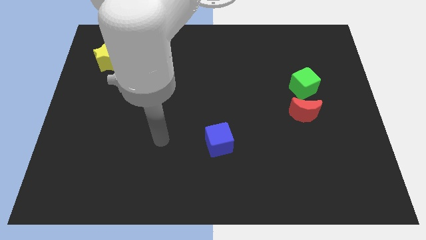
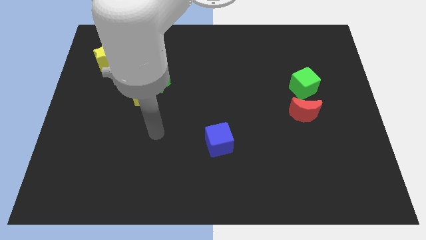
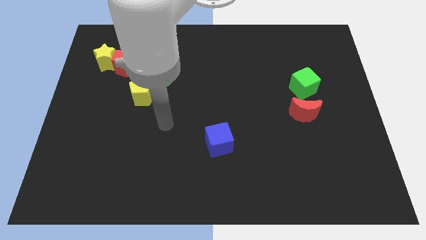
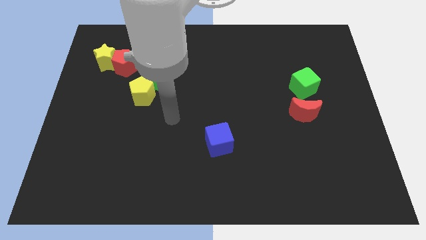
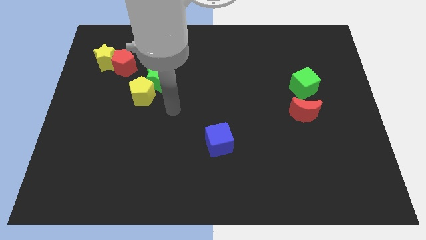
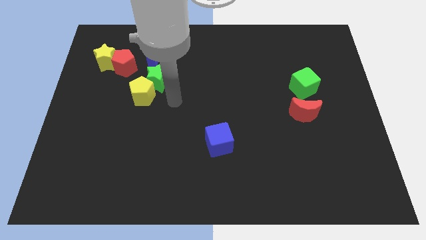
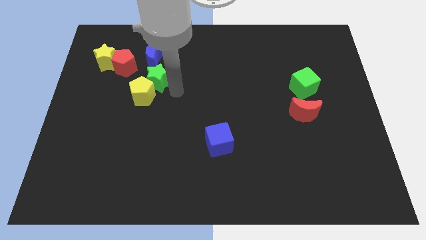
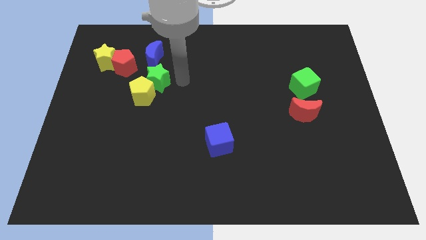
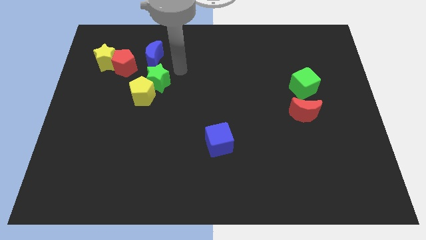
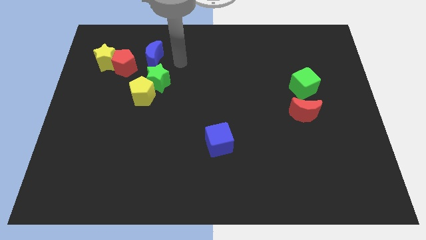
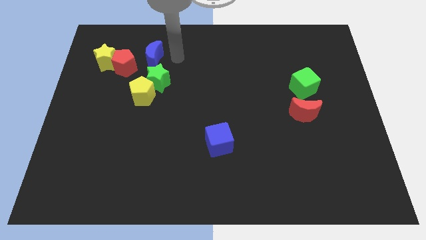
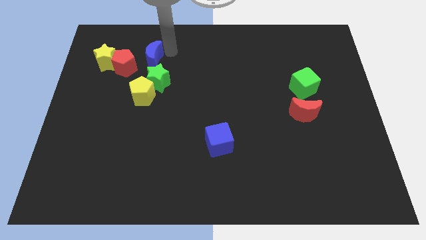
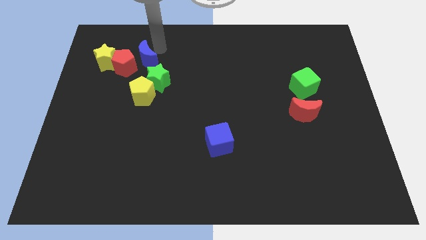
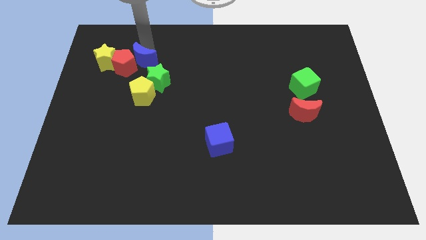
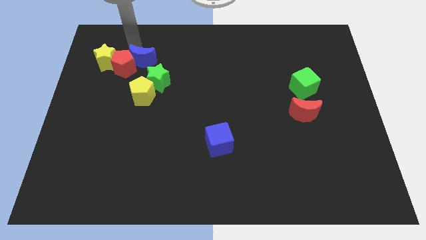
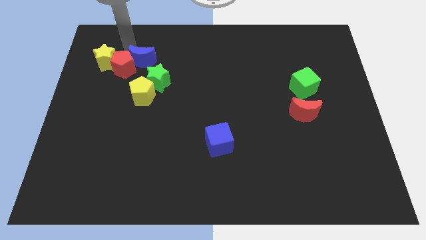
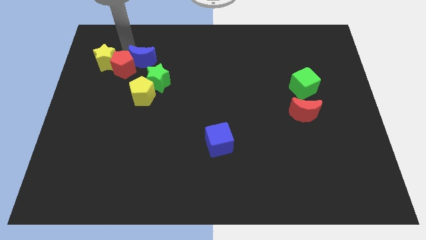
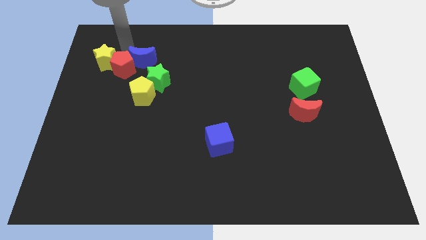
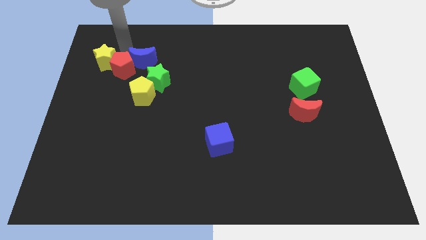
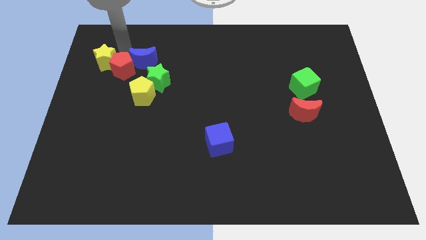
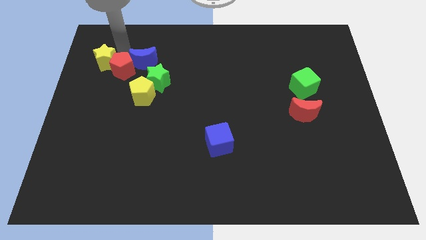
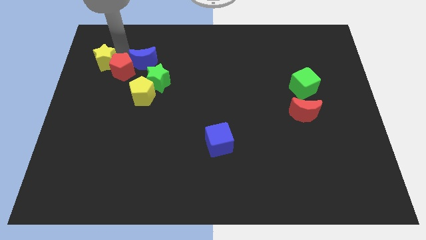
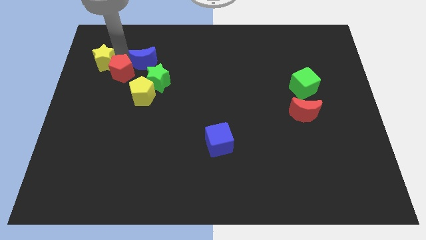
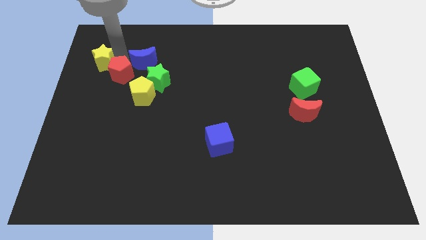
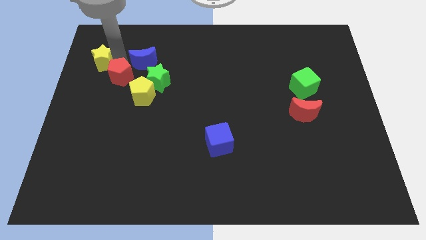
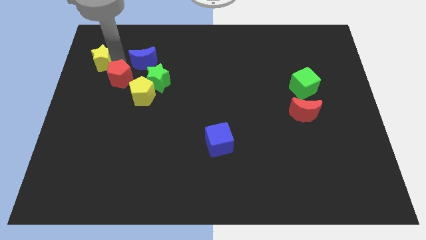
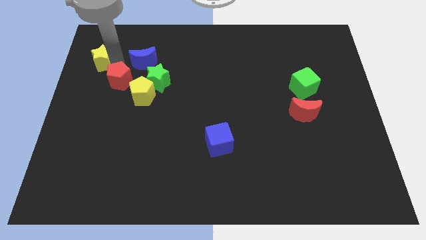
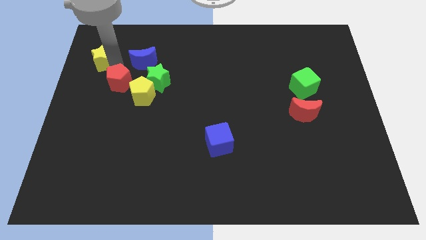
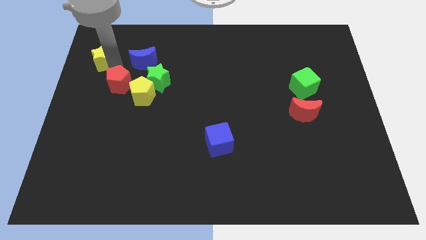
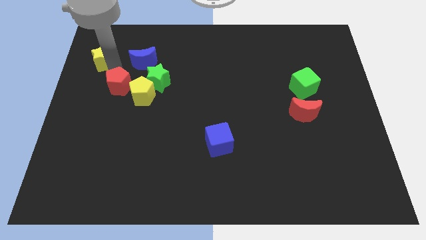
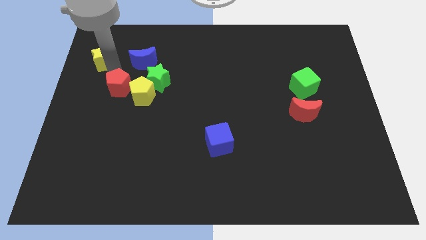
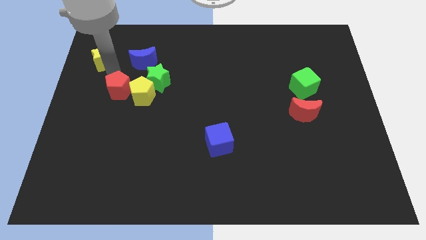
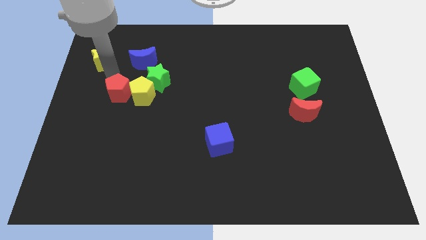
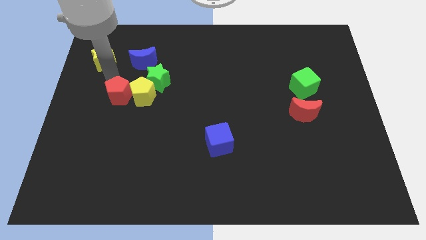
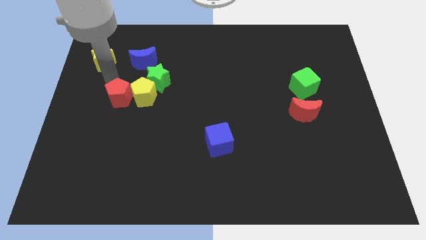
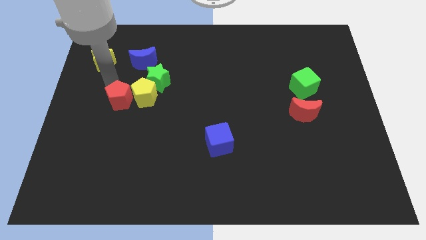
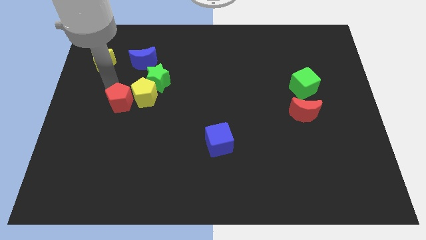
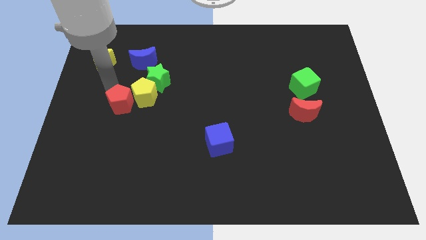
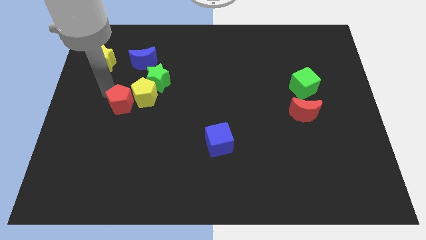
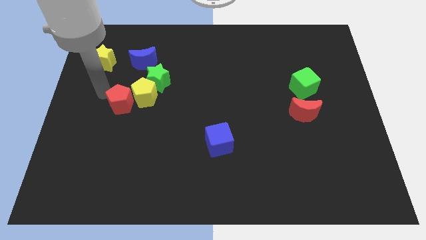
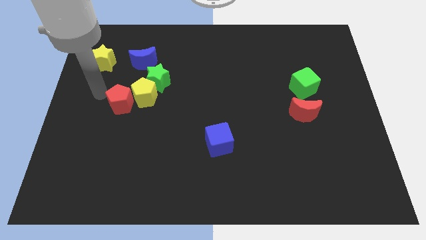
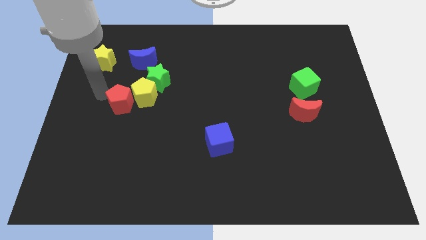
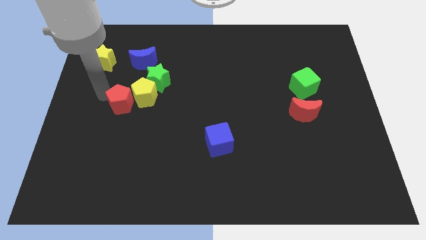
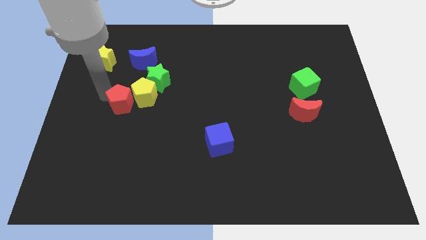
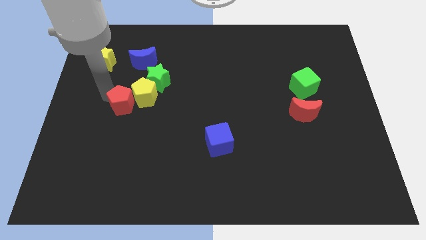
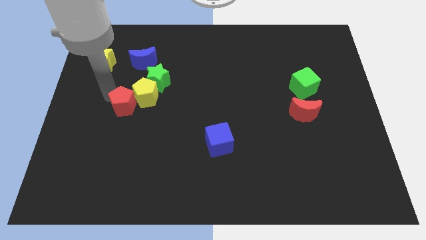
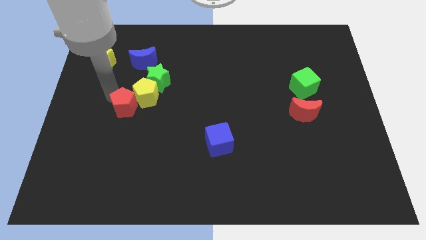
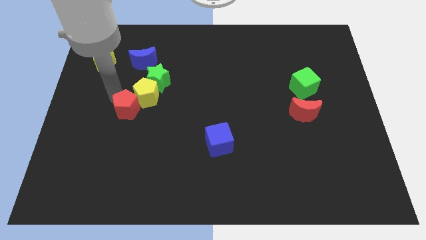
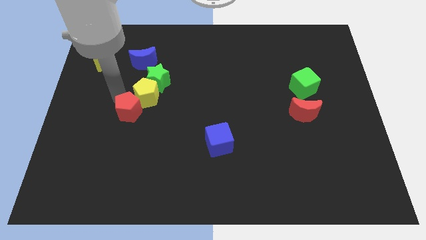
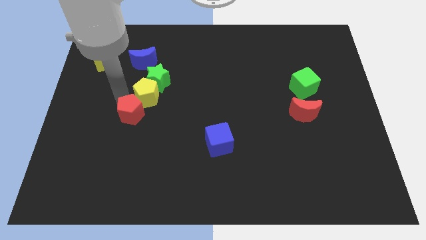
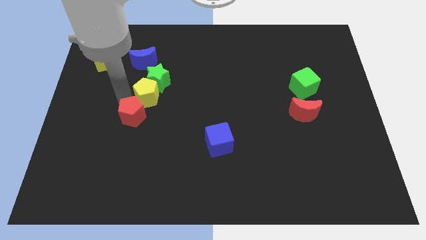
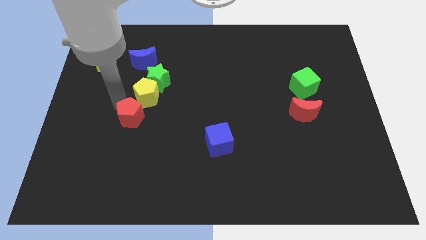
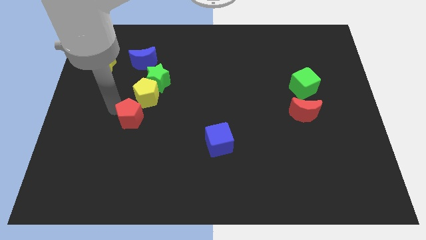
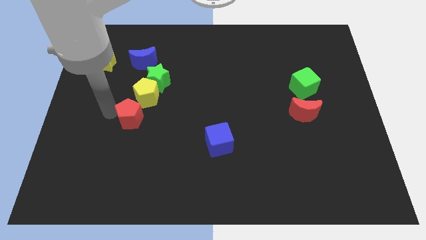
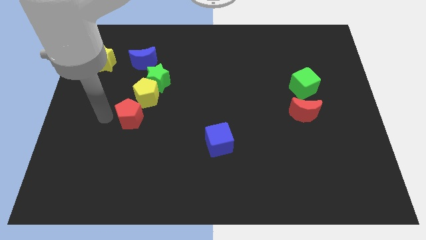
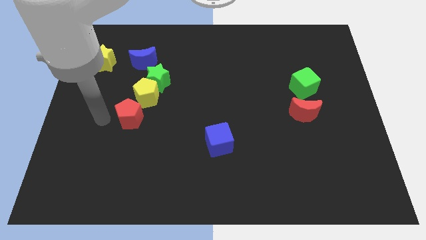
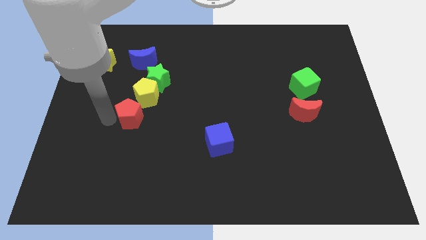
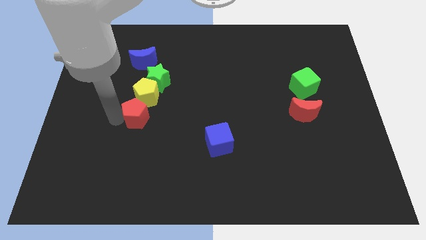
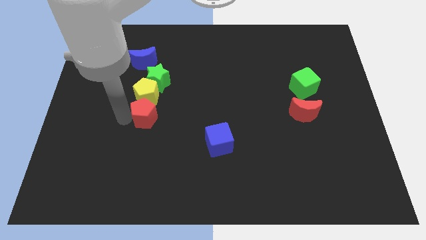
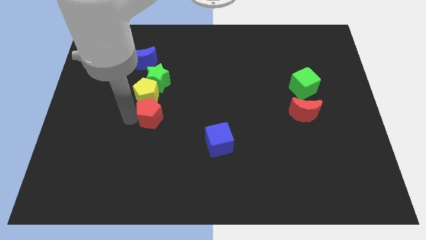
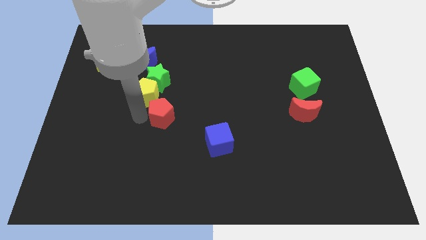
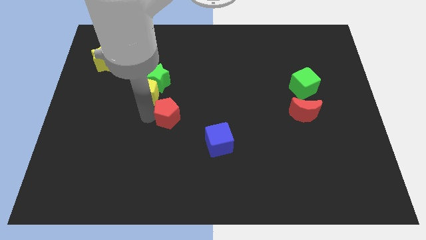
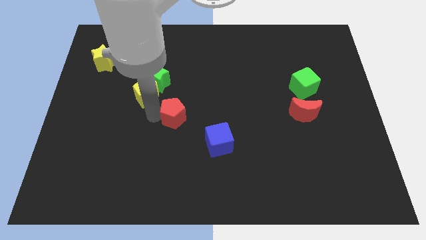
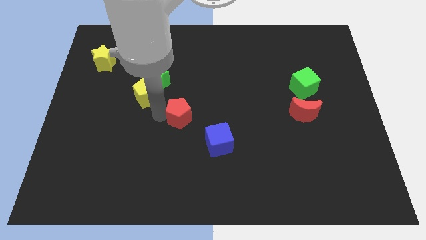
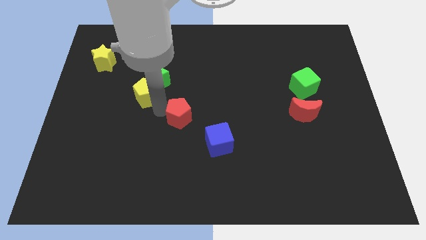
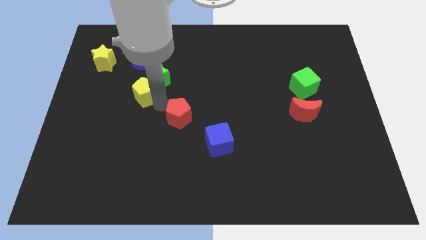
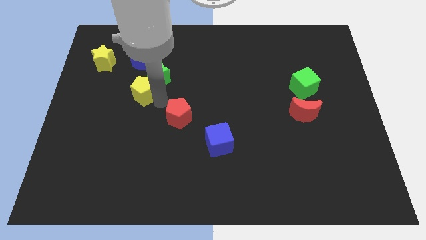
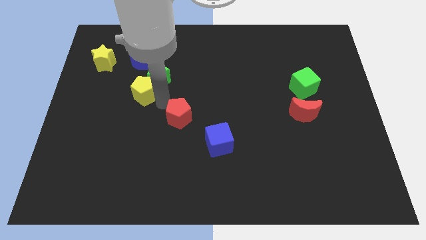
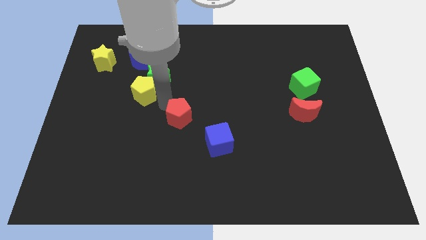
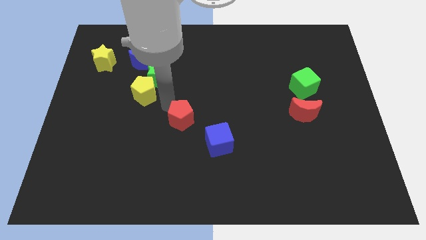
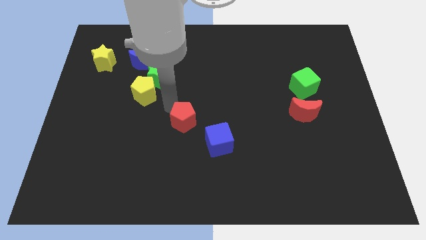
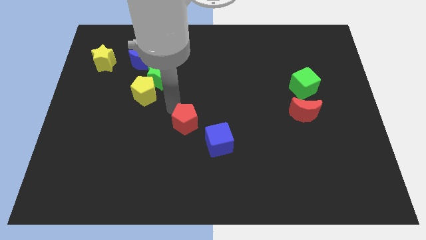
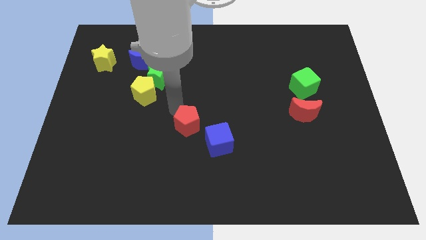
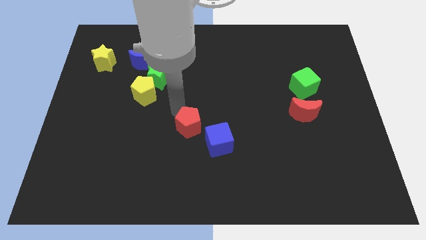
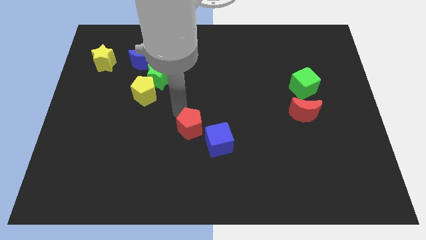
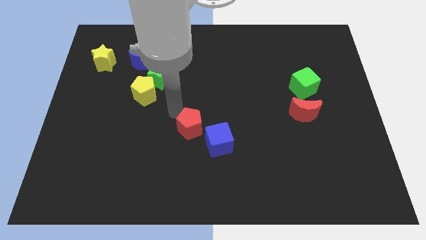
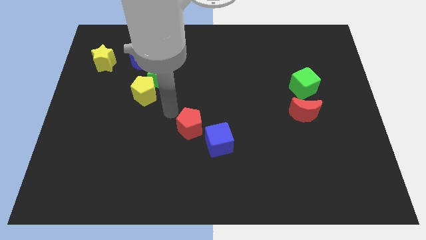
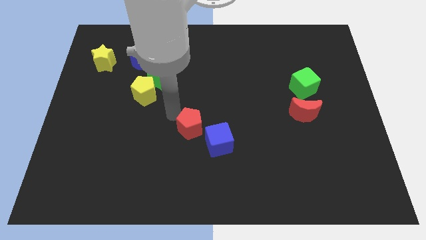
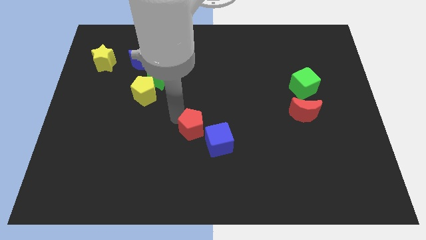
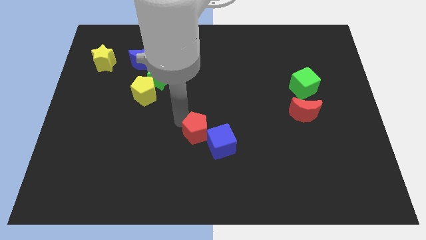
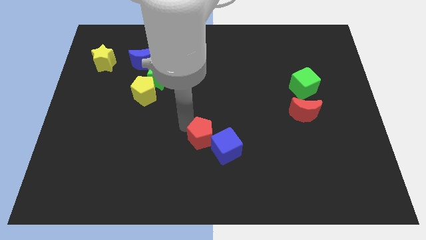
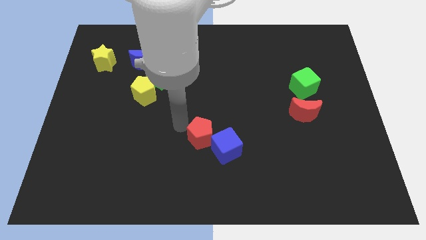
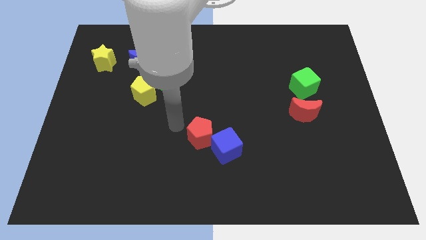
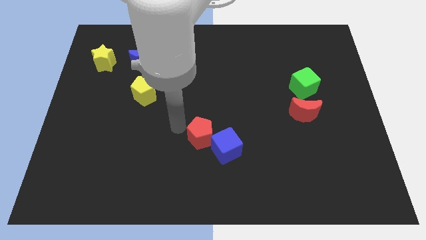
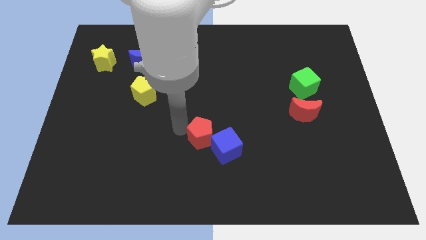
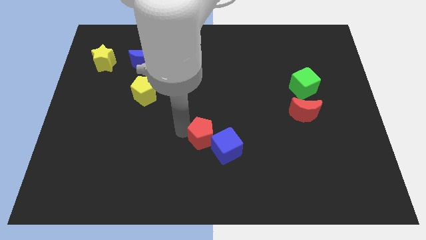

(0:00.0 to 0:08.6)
slide the red pentagon next to the blue cube
